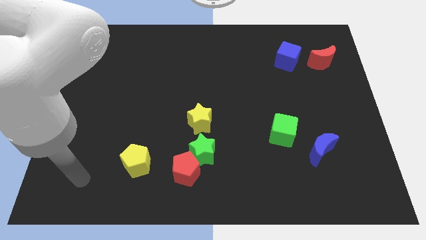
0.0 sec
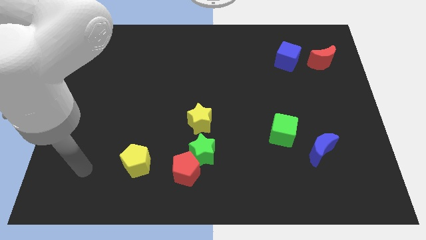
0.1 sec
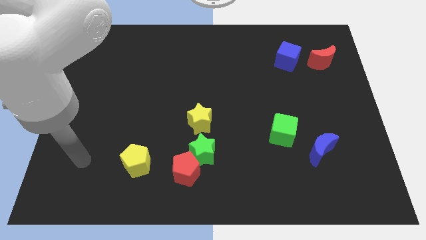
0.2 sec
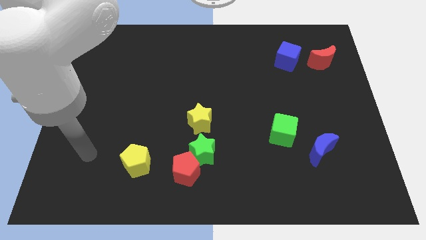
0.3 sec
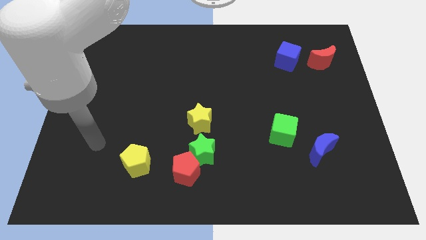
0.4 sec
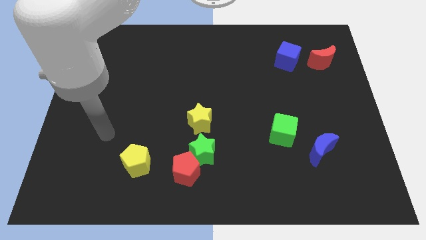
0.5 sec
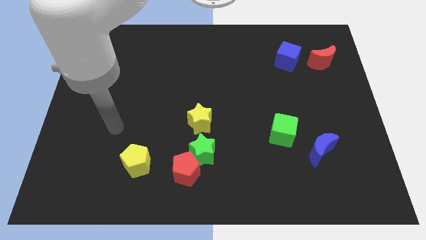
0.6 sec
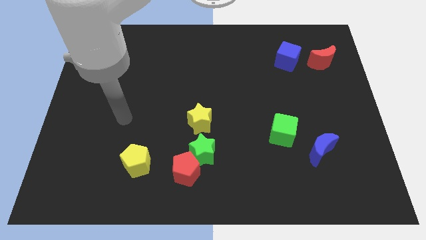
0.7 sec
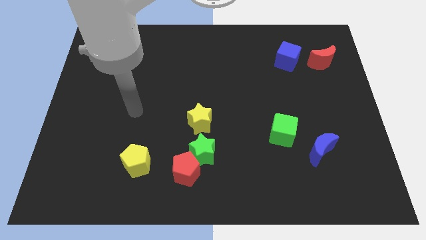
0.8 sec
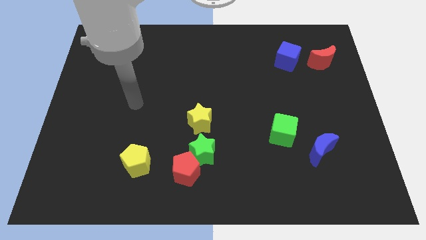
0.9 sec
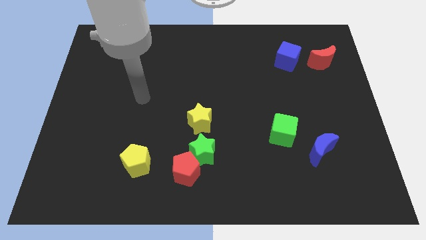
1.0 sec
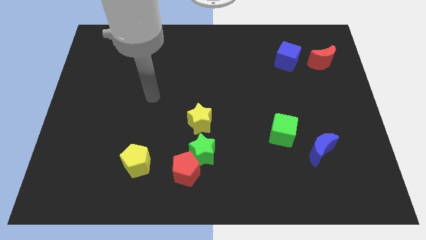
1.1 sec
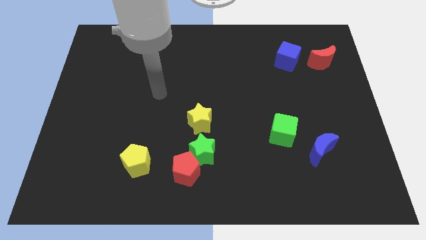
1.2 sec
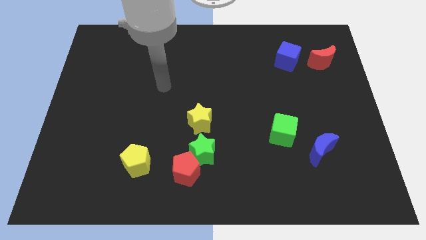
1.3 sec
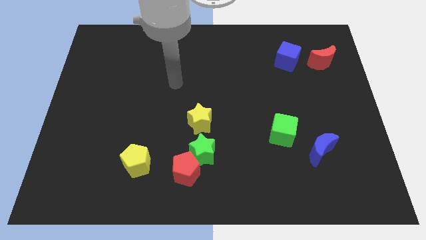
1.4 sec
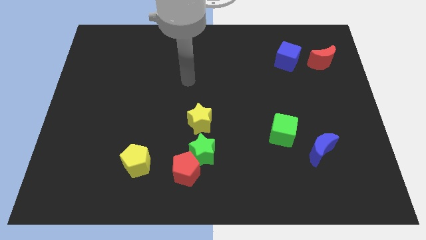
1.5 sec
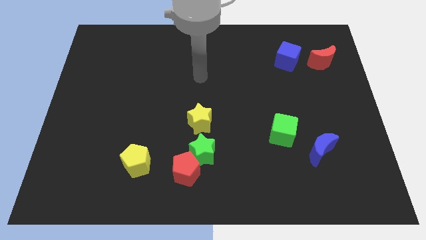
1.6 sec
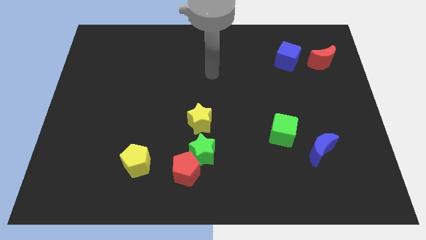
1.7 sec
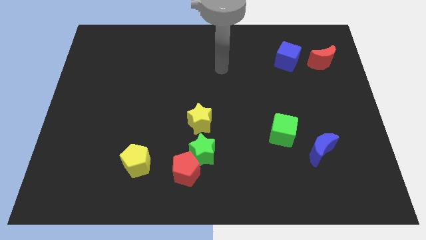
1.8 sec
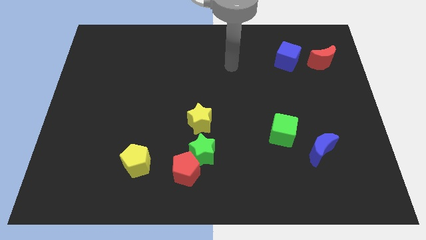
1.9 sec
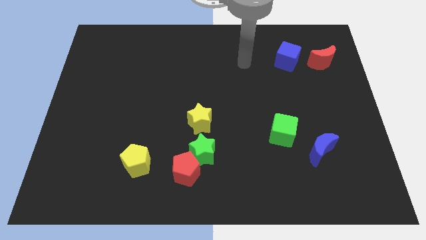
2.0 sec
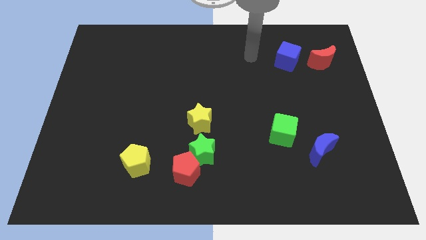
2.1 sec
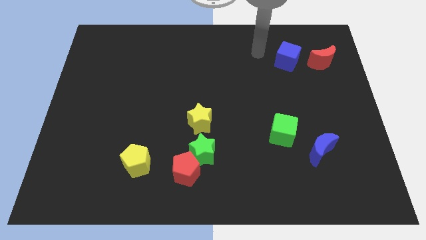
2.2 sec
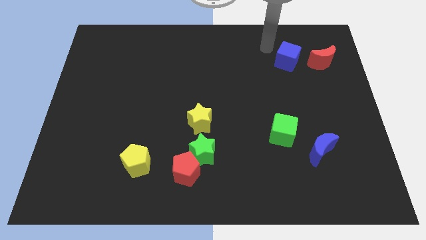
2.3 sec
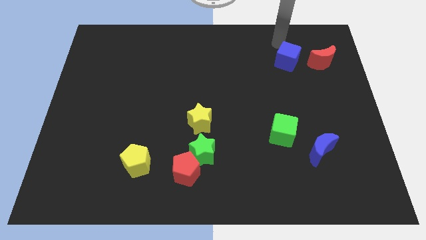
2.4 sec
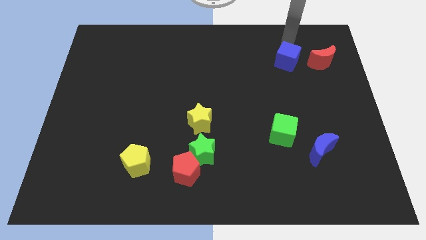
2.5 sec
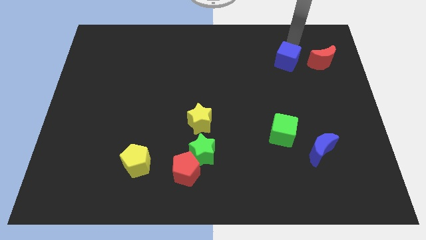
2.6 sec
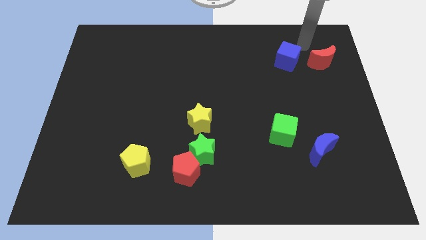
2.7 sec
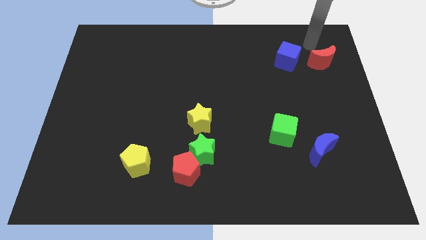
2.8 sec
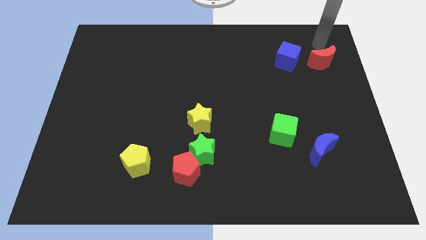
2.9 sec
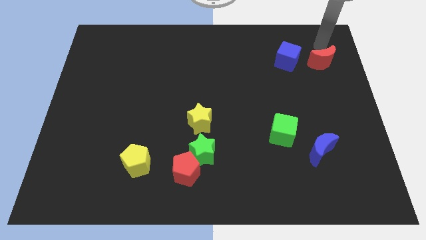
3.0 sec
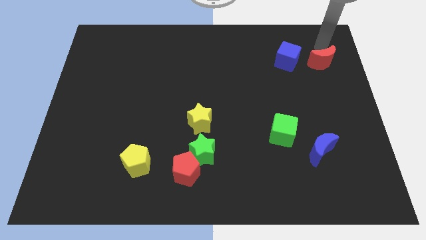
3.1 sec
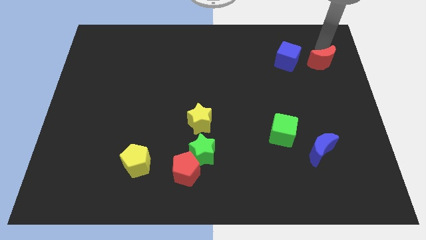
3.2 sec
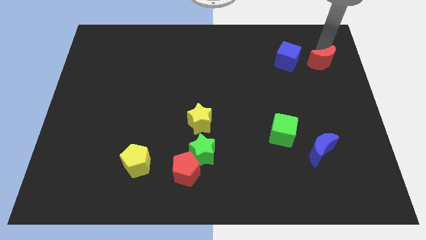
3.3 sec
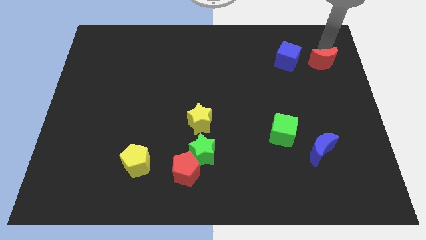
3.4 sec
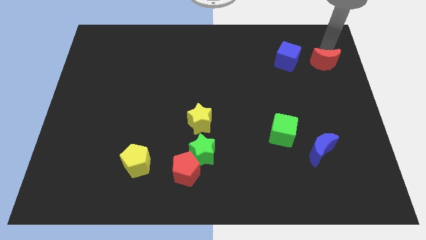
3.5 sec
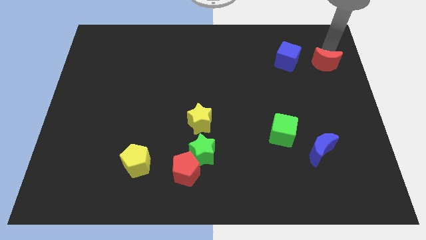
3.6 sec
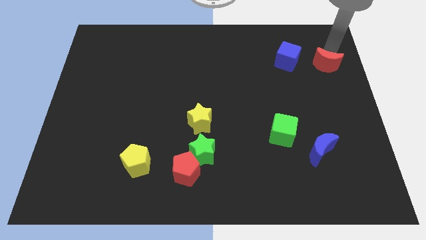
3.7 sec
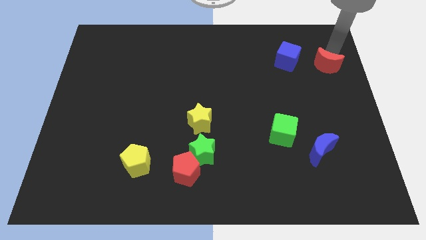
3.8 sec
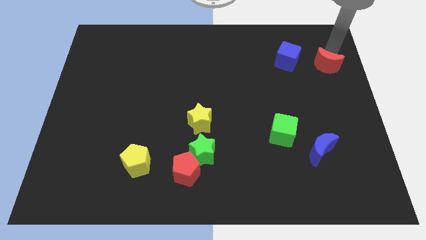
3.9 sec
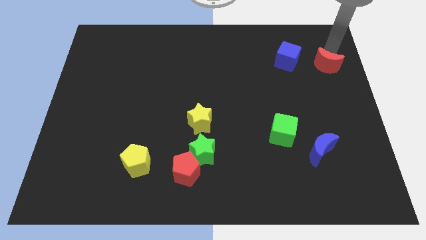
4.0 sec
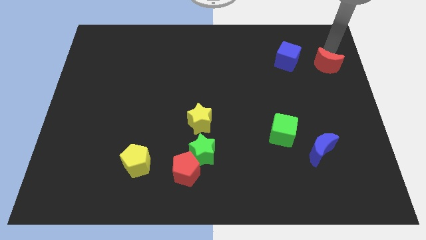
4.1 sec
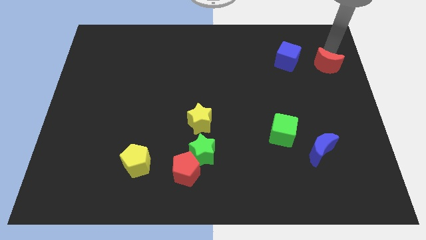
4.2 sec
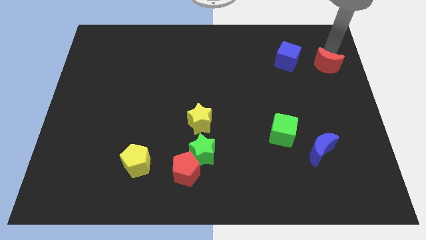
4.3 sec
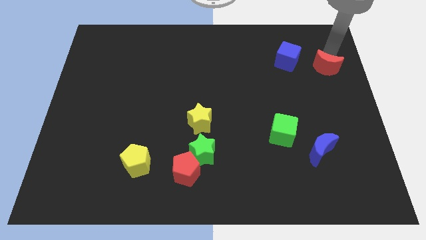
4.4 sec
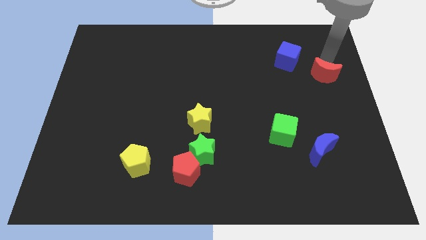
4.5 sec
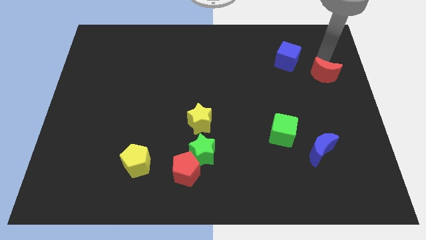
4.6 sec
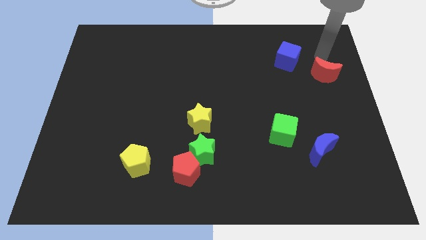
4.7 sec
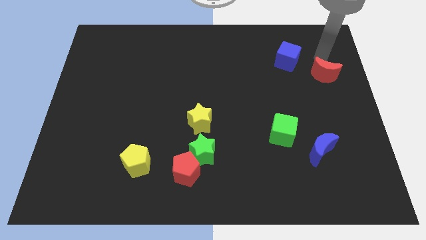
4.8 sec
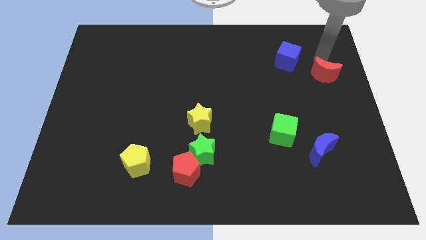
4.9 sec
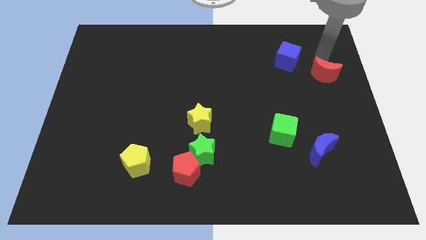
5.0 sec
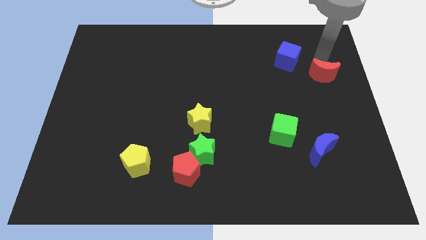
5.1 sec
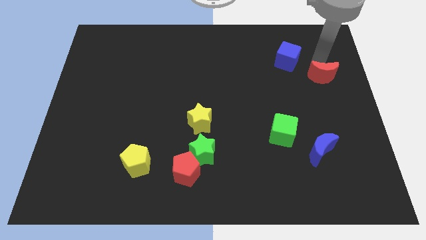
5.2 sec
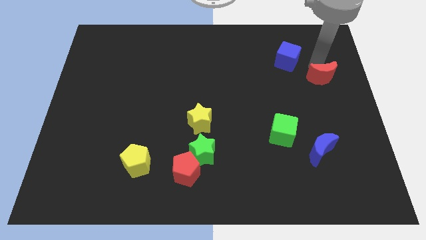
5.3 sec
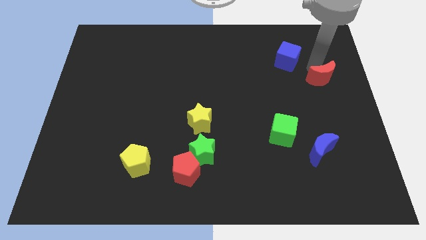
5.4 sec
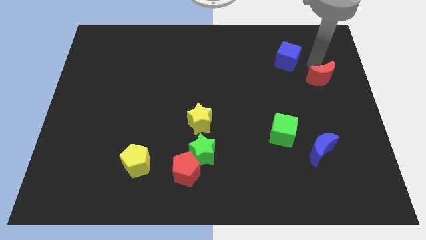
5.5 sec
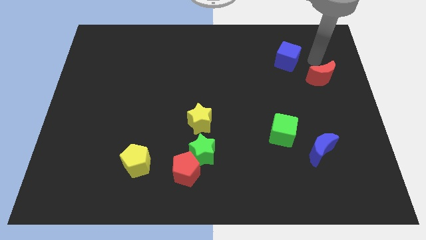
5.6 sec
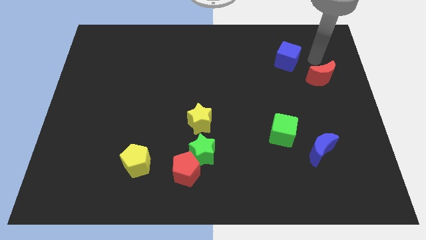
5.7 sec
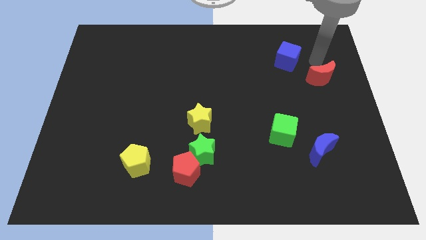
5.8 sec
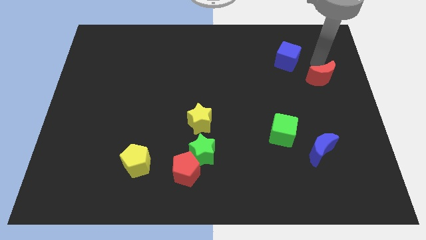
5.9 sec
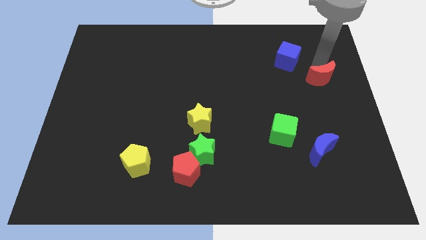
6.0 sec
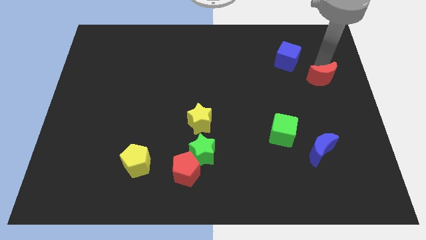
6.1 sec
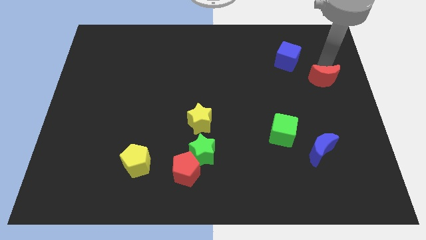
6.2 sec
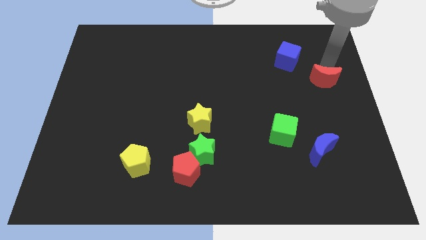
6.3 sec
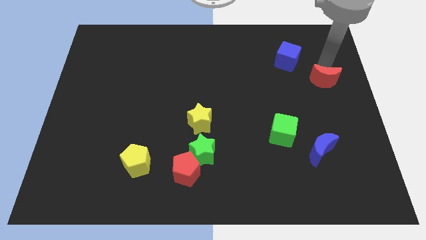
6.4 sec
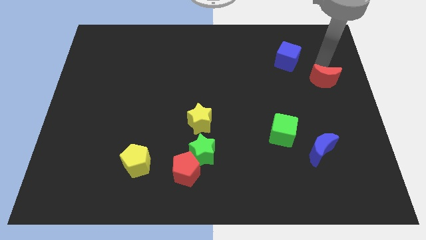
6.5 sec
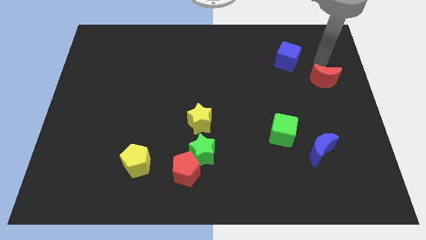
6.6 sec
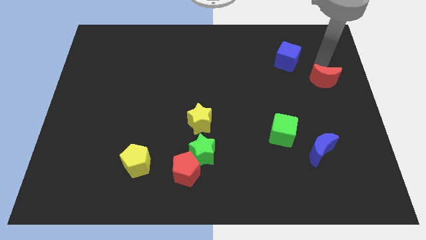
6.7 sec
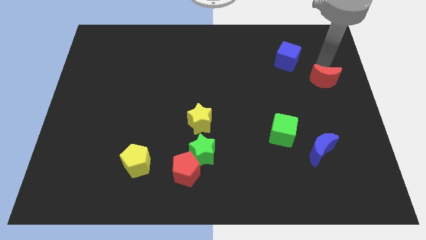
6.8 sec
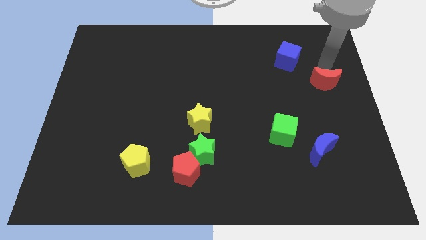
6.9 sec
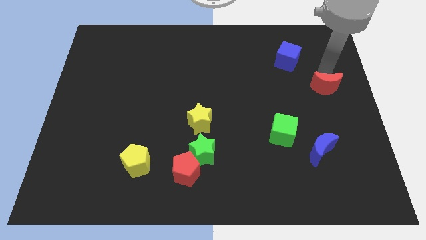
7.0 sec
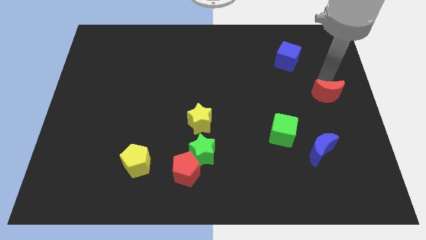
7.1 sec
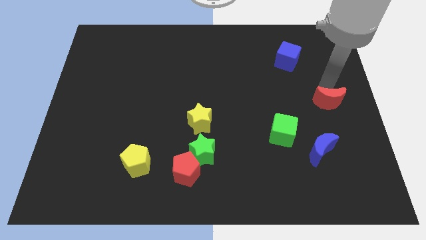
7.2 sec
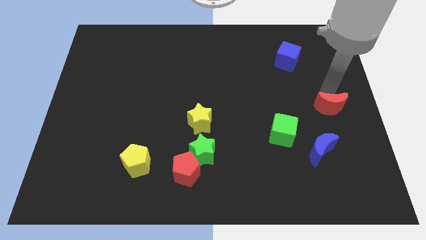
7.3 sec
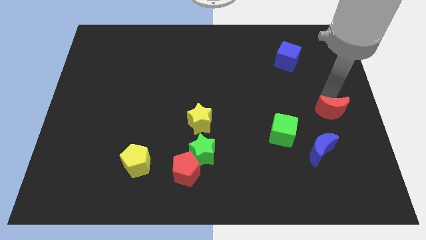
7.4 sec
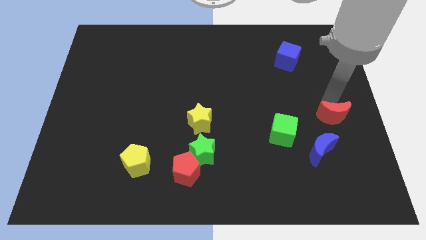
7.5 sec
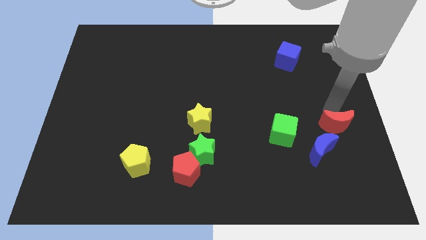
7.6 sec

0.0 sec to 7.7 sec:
push the red moon downwards
